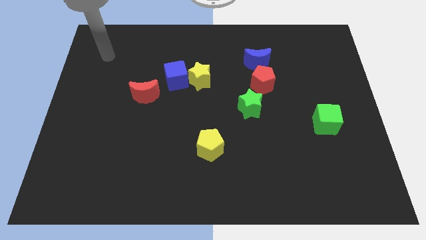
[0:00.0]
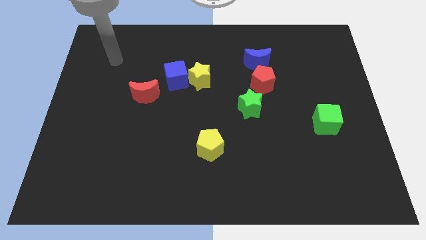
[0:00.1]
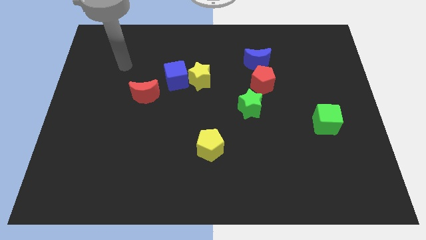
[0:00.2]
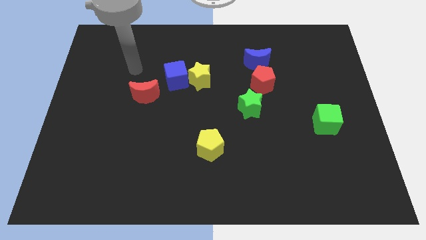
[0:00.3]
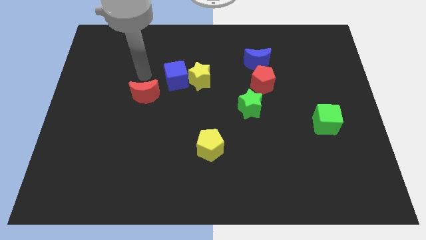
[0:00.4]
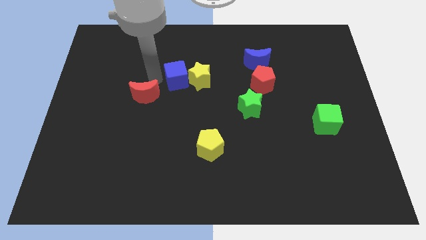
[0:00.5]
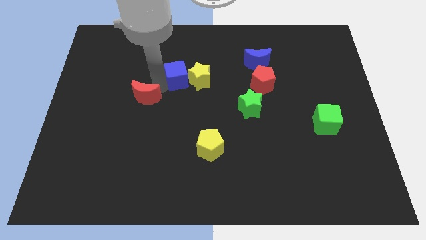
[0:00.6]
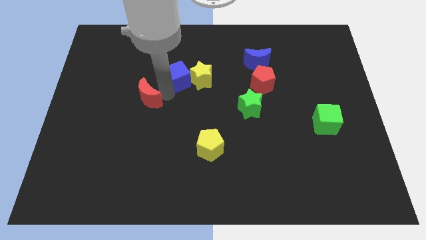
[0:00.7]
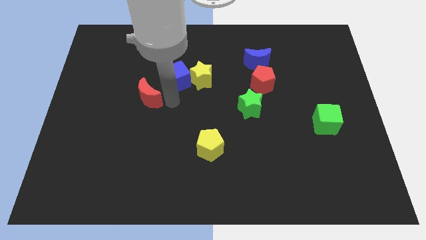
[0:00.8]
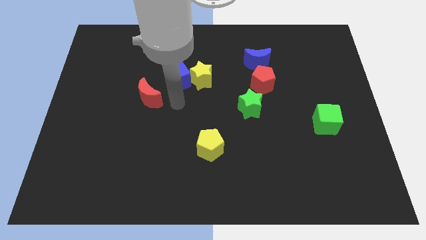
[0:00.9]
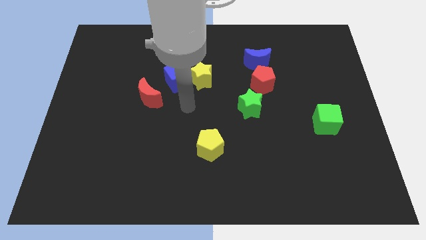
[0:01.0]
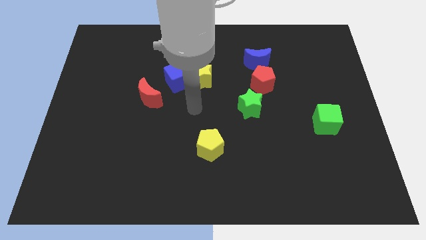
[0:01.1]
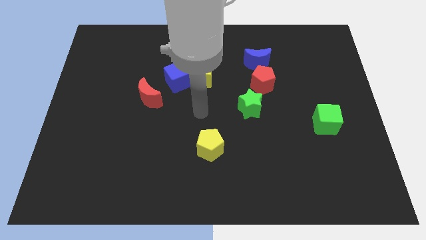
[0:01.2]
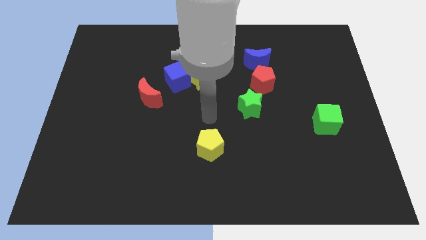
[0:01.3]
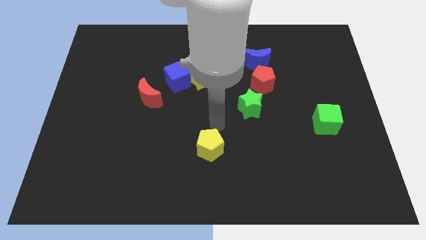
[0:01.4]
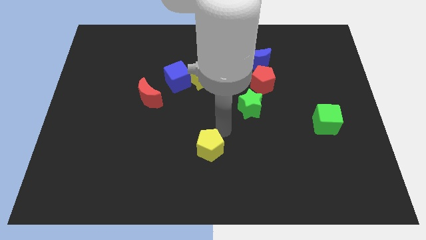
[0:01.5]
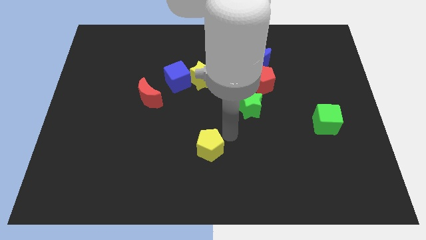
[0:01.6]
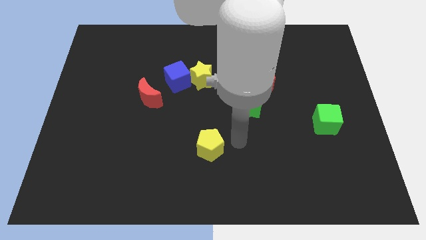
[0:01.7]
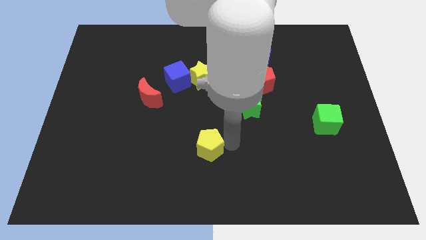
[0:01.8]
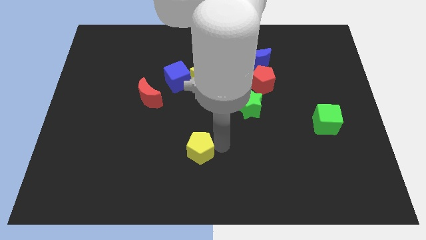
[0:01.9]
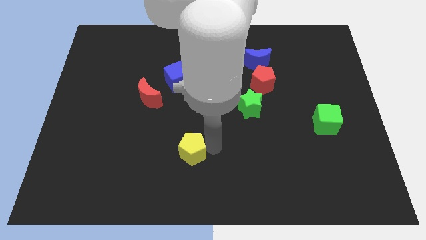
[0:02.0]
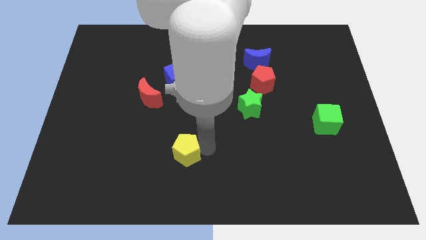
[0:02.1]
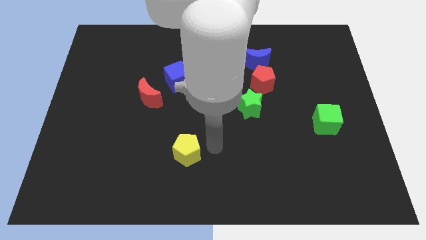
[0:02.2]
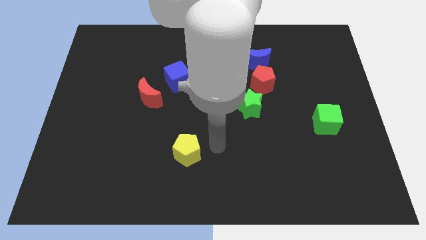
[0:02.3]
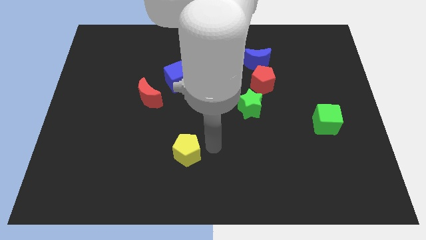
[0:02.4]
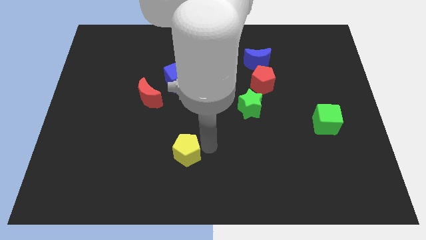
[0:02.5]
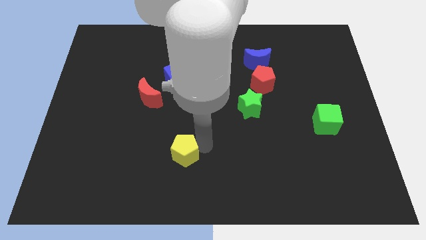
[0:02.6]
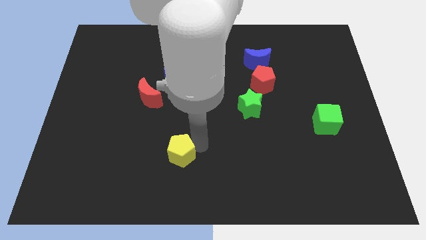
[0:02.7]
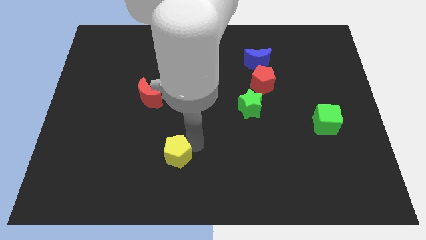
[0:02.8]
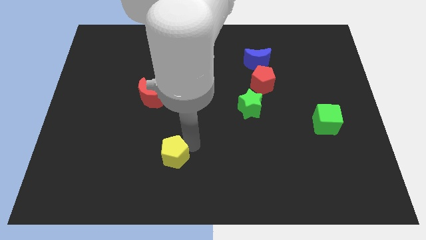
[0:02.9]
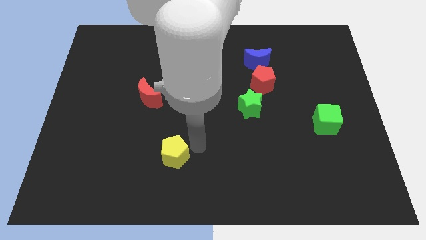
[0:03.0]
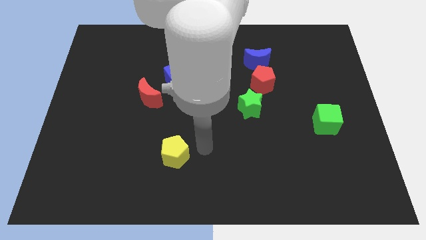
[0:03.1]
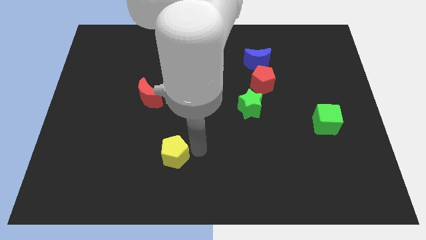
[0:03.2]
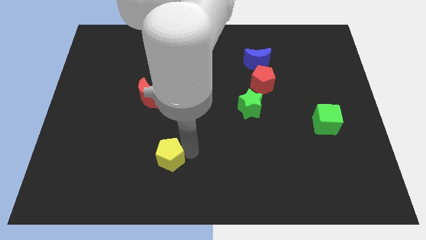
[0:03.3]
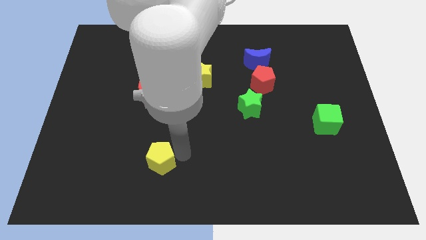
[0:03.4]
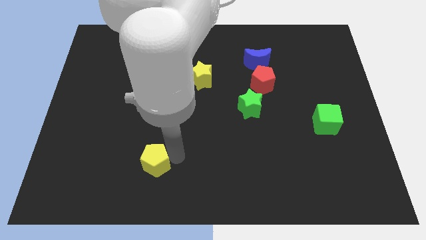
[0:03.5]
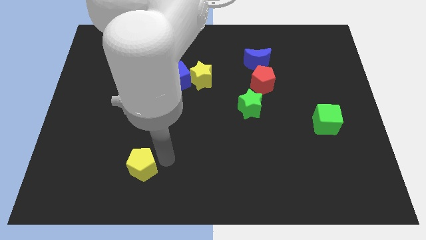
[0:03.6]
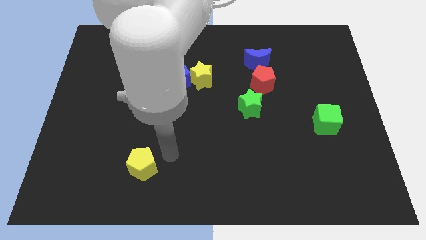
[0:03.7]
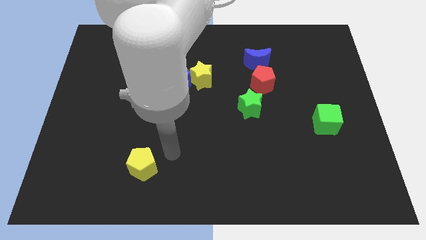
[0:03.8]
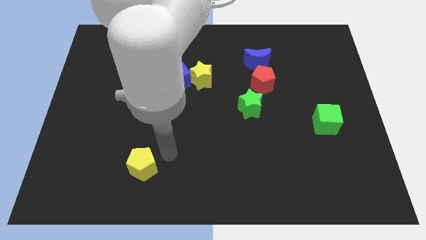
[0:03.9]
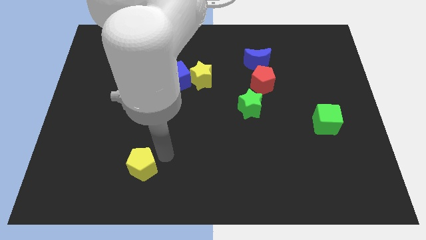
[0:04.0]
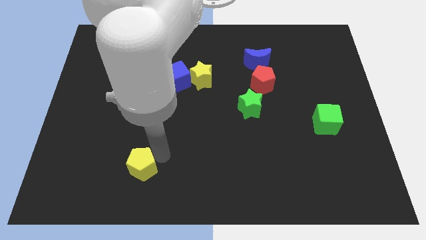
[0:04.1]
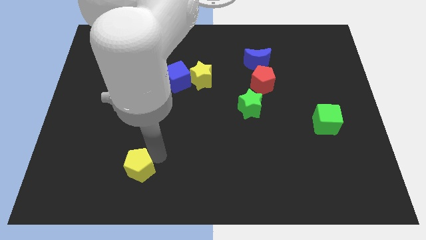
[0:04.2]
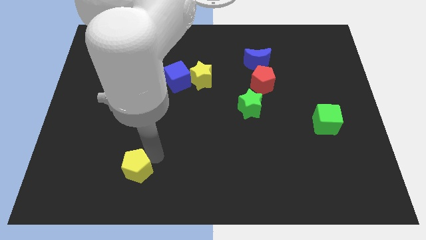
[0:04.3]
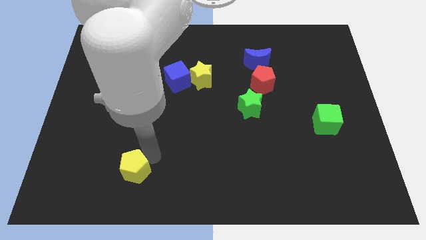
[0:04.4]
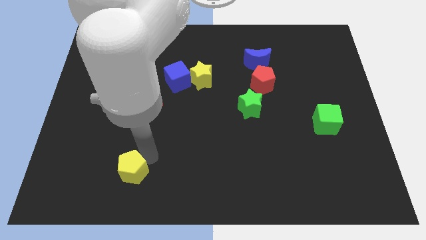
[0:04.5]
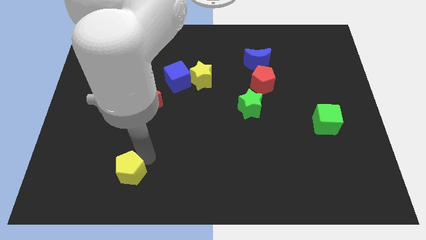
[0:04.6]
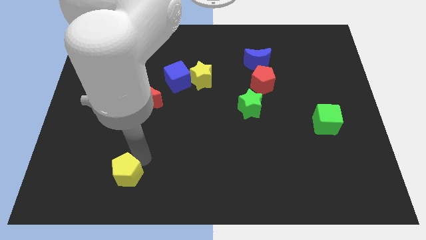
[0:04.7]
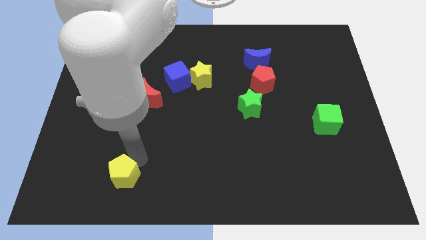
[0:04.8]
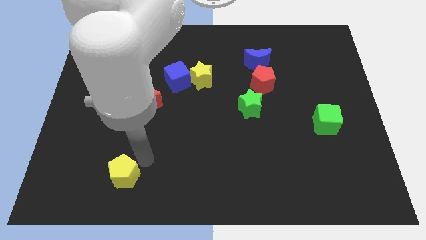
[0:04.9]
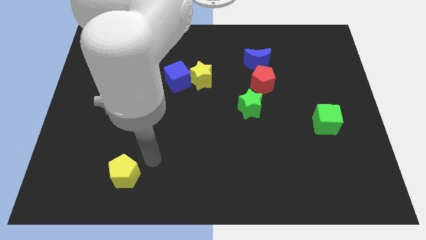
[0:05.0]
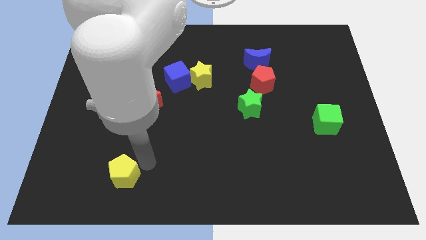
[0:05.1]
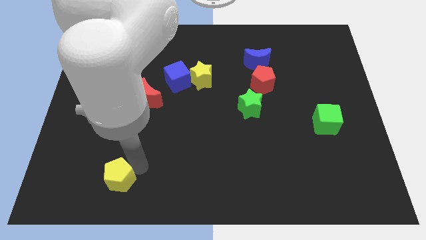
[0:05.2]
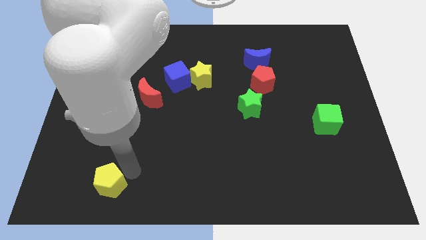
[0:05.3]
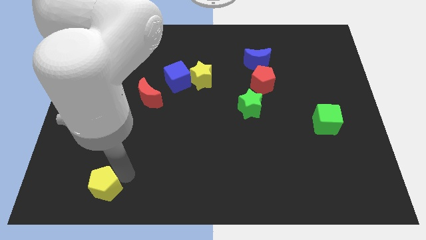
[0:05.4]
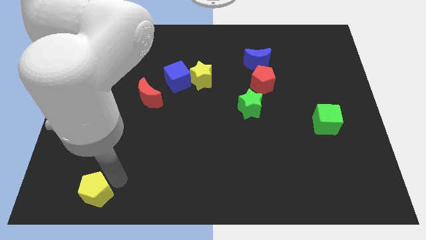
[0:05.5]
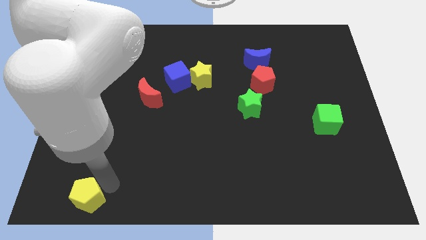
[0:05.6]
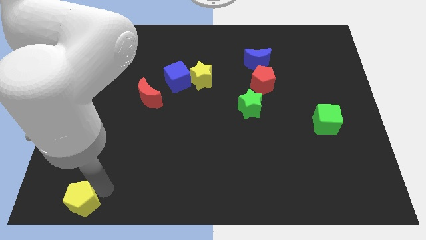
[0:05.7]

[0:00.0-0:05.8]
put the yellow pentagon to the bottom left of the board

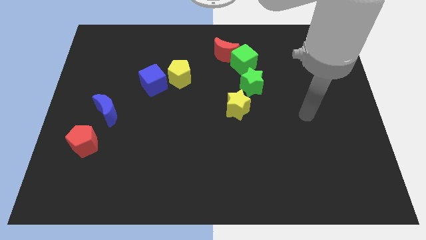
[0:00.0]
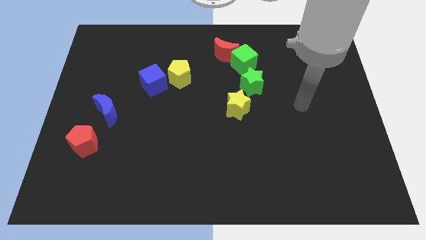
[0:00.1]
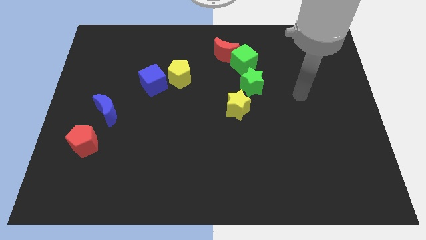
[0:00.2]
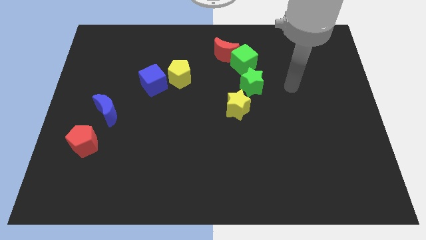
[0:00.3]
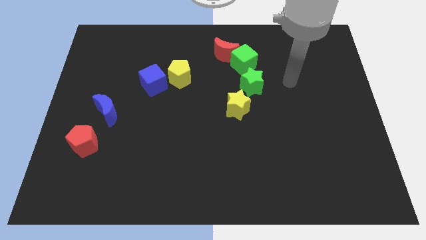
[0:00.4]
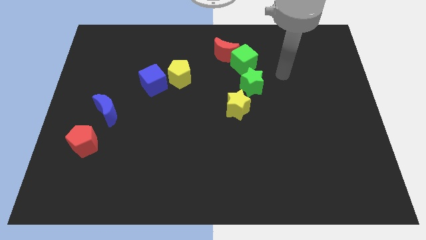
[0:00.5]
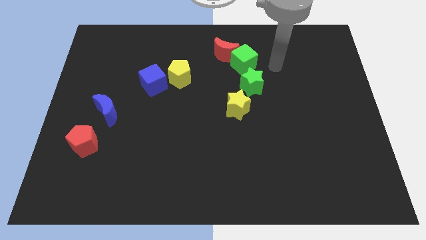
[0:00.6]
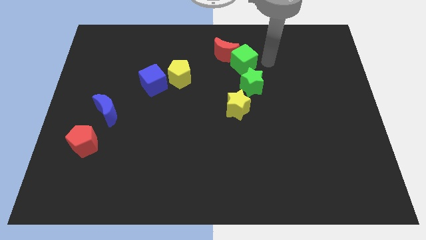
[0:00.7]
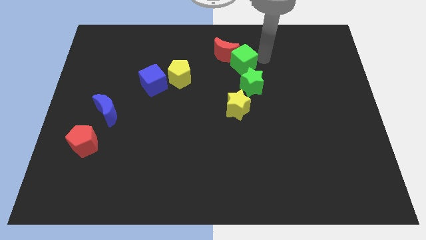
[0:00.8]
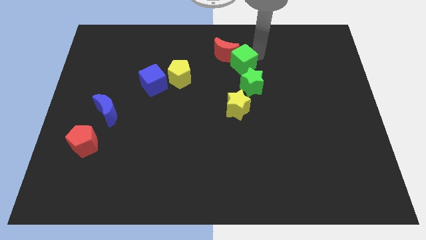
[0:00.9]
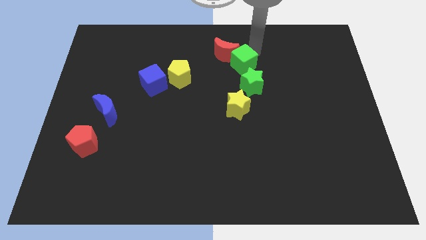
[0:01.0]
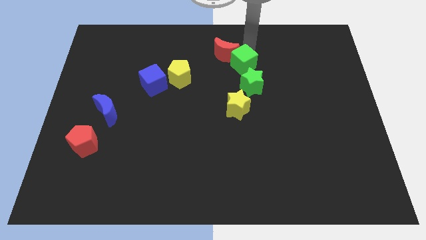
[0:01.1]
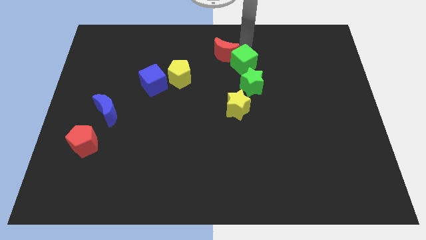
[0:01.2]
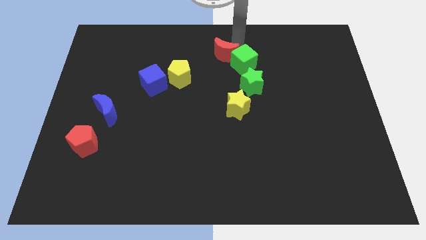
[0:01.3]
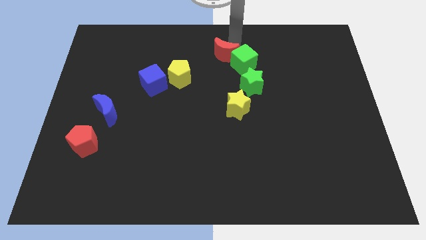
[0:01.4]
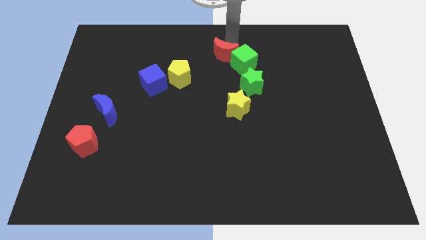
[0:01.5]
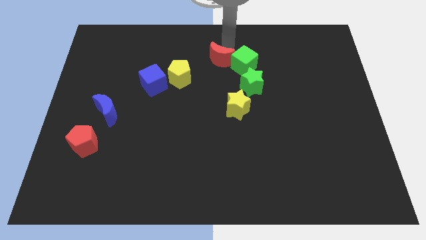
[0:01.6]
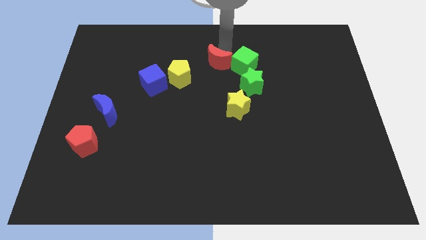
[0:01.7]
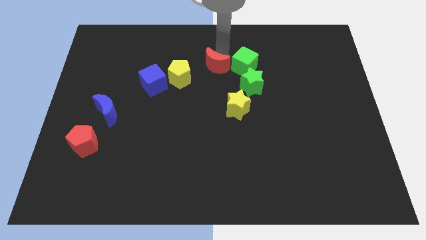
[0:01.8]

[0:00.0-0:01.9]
slide the red moon to the center
